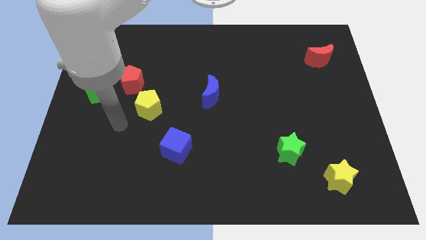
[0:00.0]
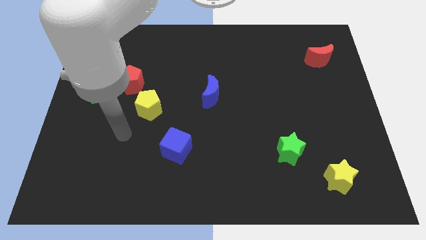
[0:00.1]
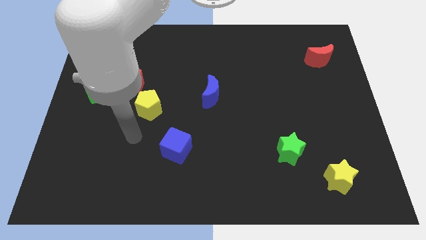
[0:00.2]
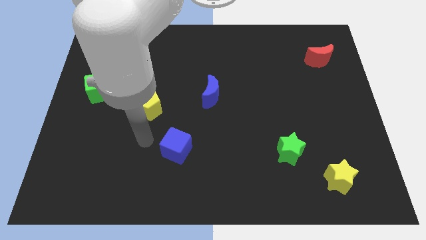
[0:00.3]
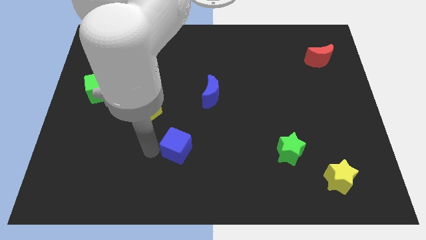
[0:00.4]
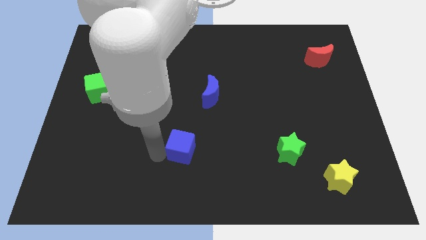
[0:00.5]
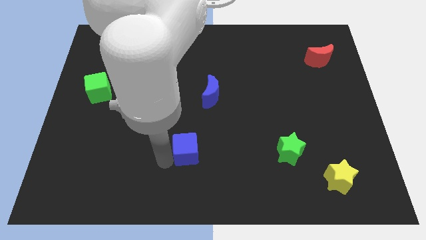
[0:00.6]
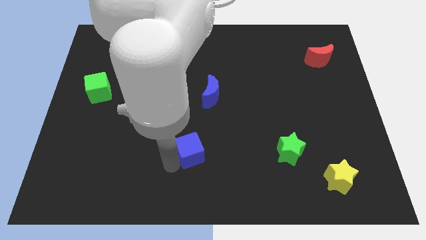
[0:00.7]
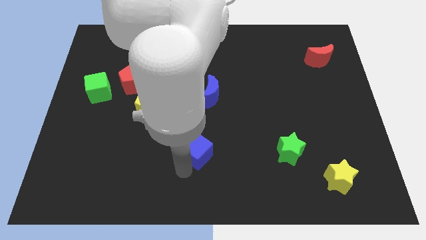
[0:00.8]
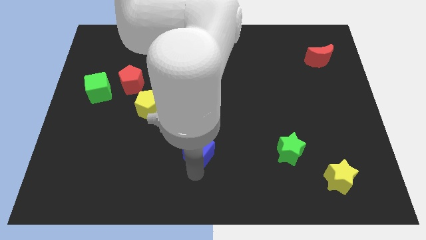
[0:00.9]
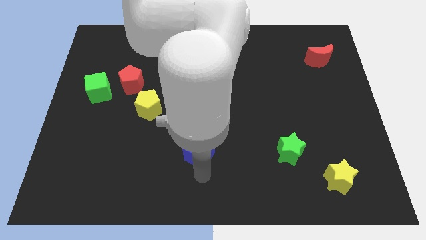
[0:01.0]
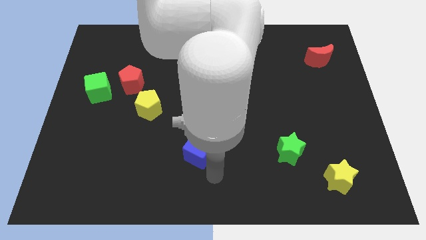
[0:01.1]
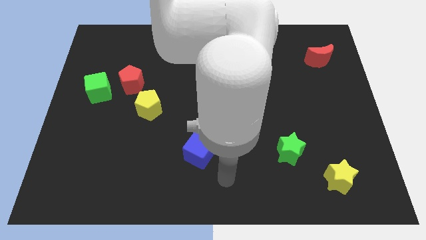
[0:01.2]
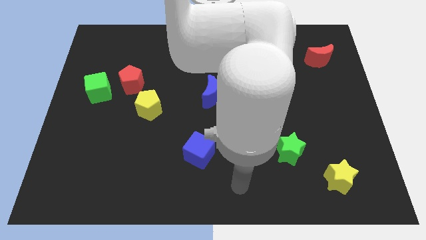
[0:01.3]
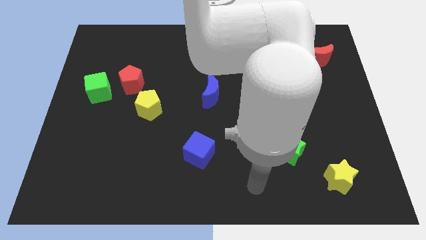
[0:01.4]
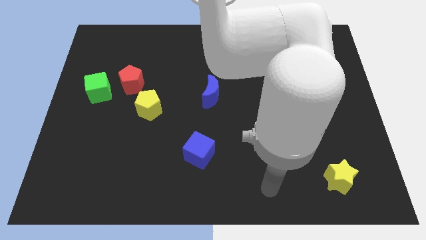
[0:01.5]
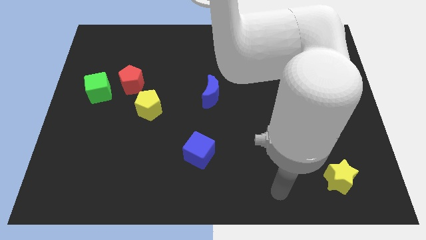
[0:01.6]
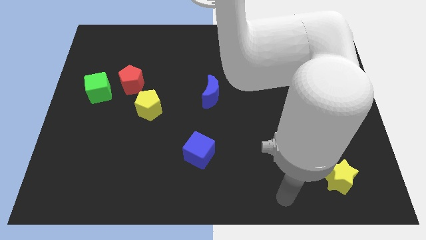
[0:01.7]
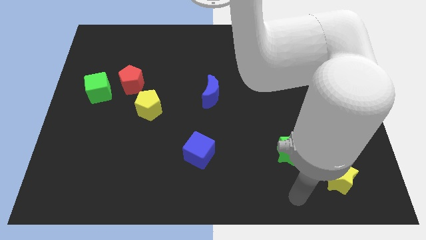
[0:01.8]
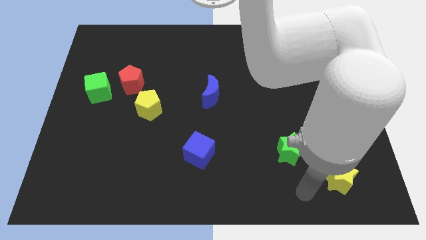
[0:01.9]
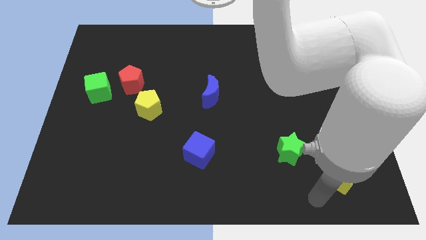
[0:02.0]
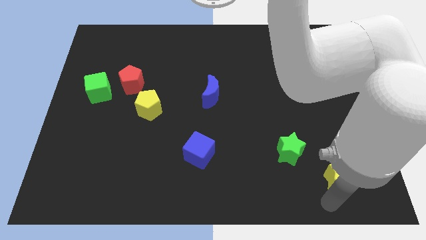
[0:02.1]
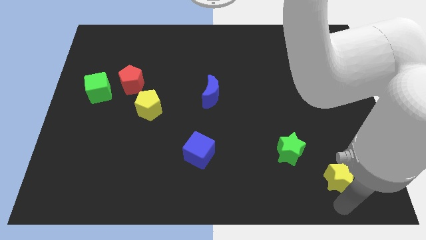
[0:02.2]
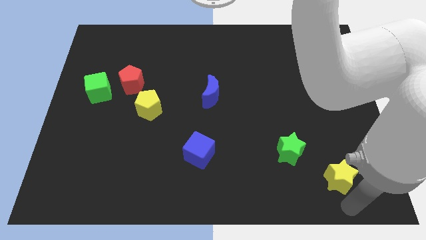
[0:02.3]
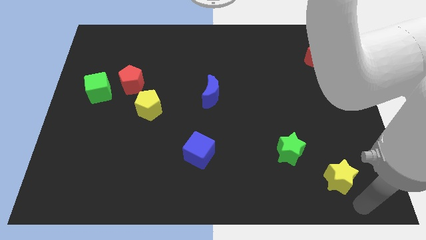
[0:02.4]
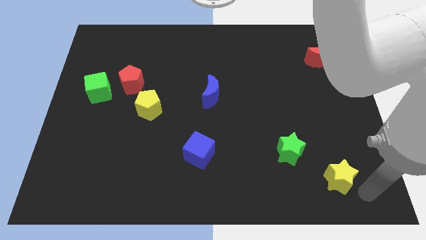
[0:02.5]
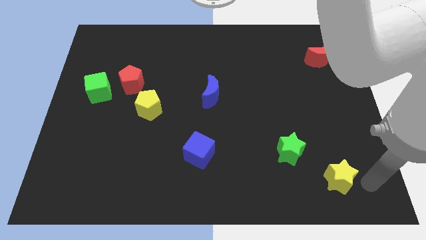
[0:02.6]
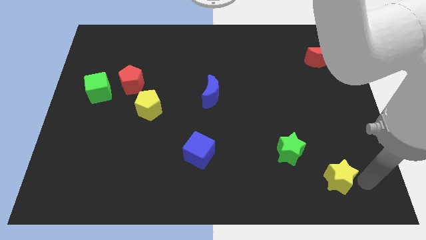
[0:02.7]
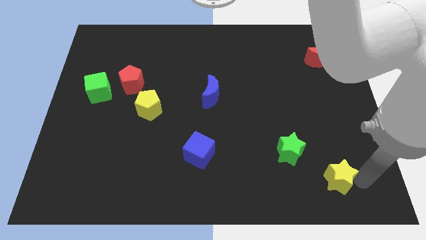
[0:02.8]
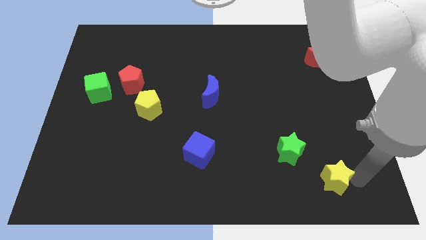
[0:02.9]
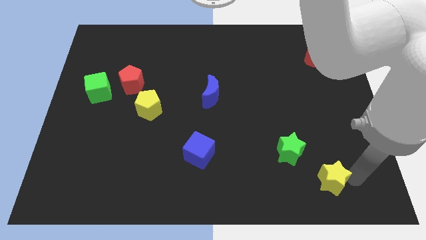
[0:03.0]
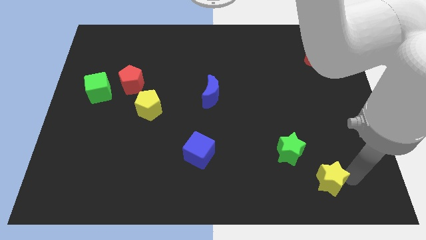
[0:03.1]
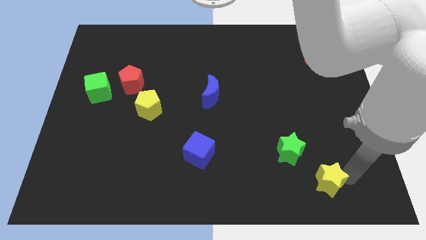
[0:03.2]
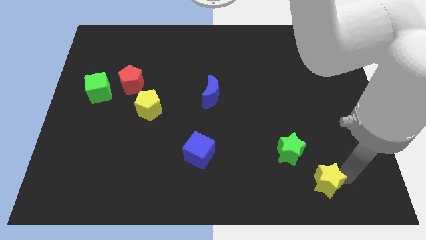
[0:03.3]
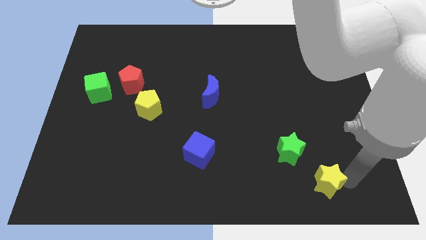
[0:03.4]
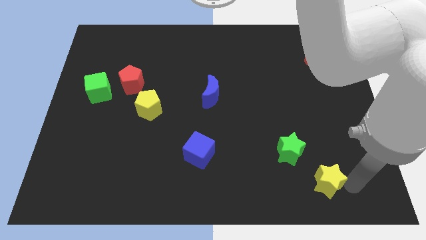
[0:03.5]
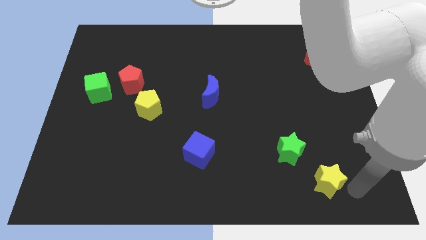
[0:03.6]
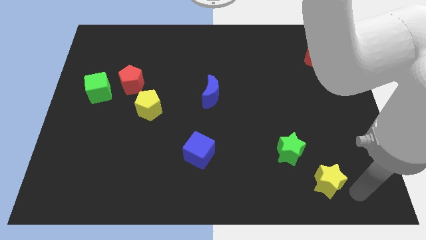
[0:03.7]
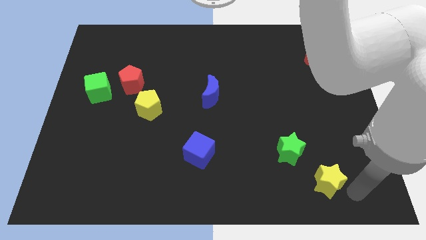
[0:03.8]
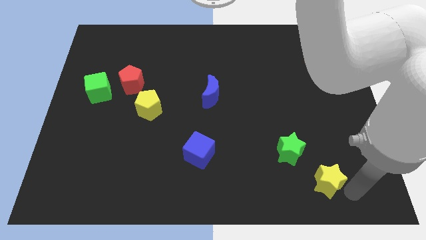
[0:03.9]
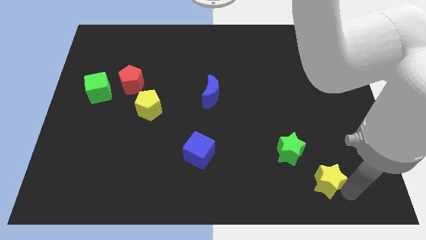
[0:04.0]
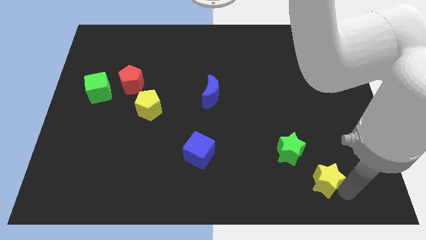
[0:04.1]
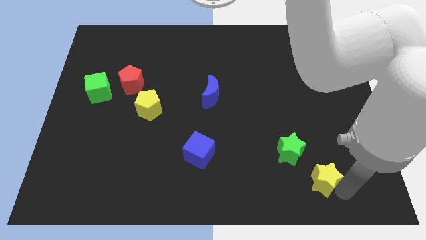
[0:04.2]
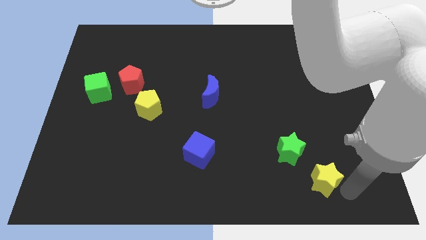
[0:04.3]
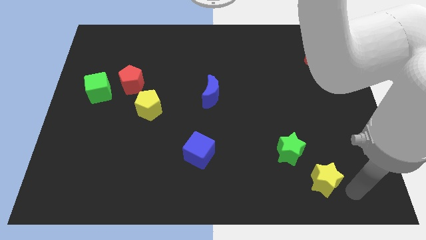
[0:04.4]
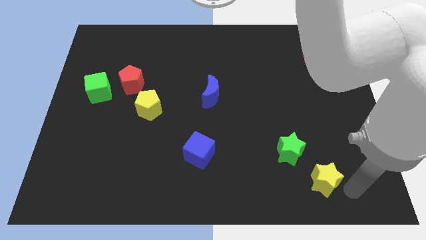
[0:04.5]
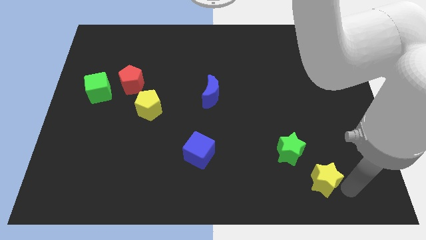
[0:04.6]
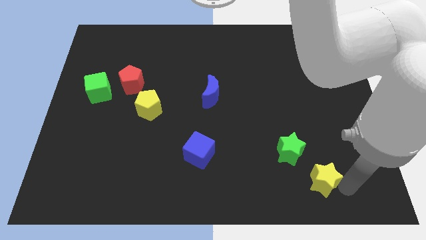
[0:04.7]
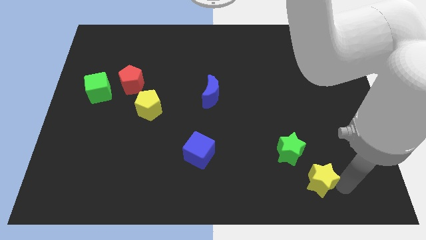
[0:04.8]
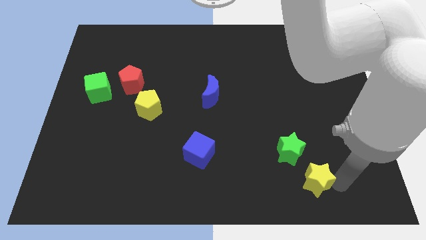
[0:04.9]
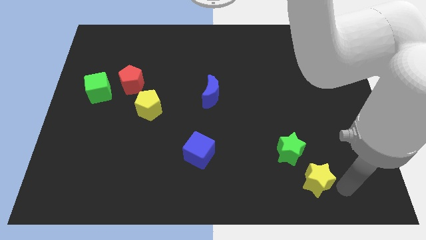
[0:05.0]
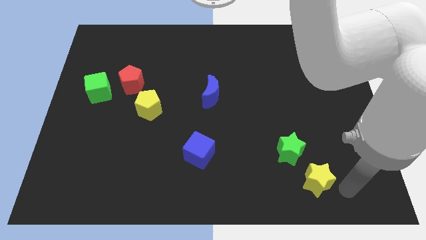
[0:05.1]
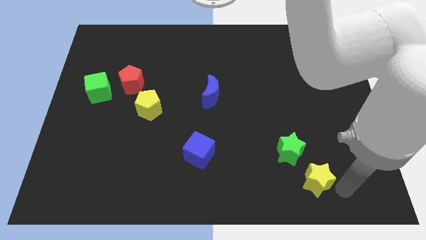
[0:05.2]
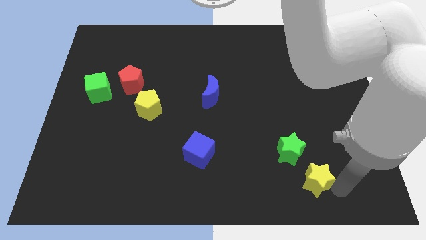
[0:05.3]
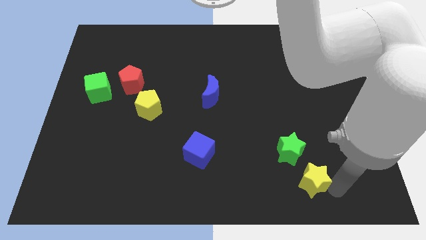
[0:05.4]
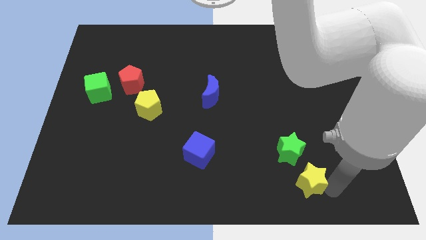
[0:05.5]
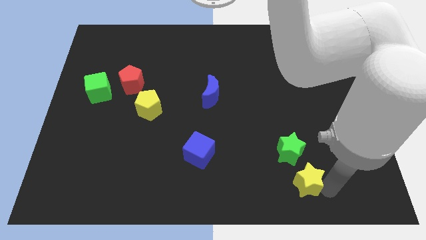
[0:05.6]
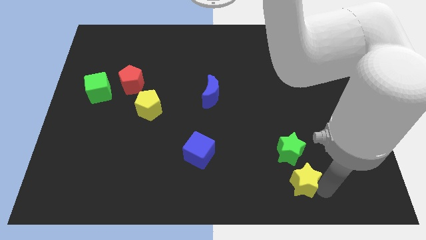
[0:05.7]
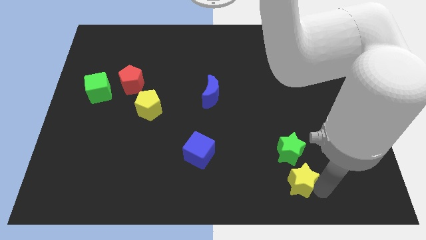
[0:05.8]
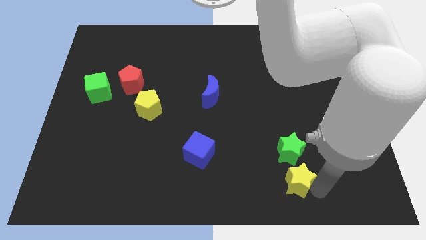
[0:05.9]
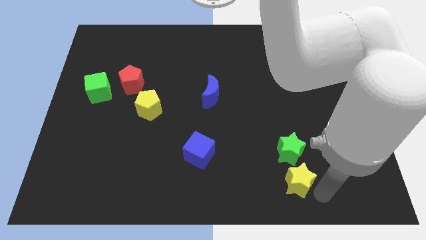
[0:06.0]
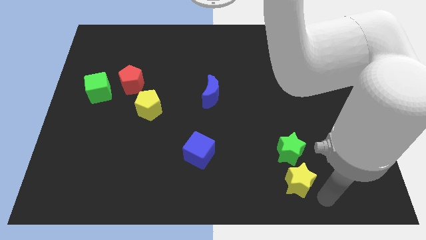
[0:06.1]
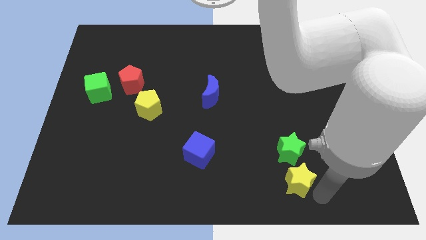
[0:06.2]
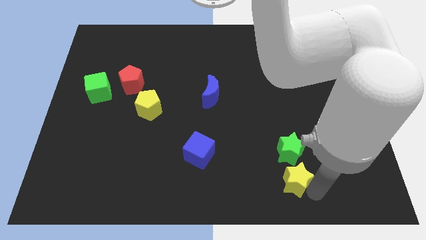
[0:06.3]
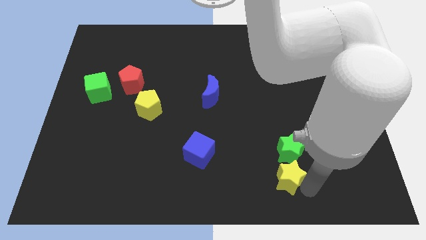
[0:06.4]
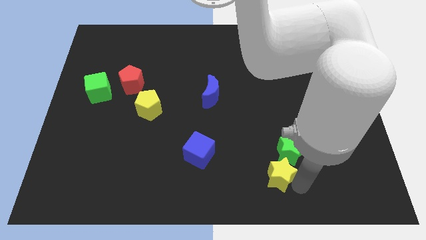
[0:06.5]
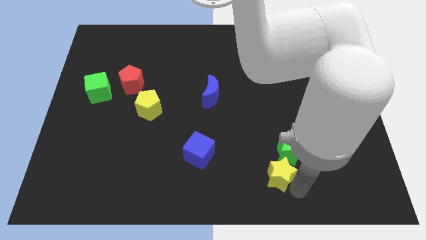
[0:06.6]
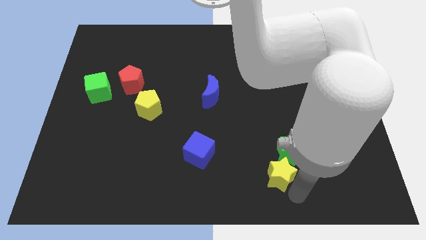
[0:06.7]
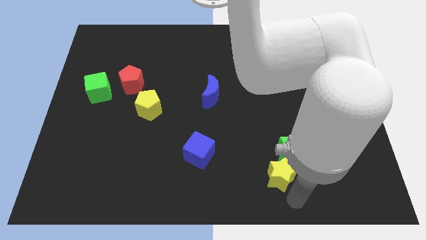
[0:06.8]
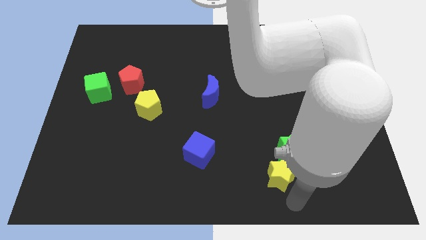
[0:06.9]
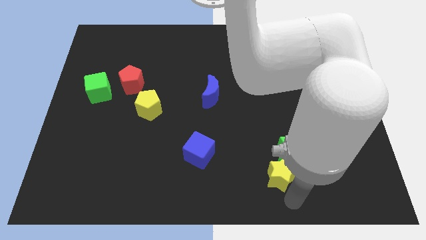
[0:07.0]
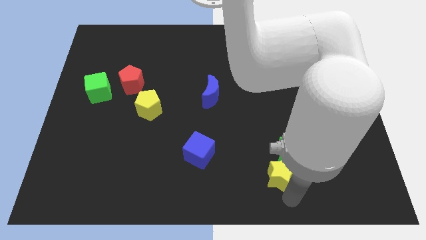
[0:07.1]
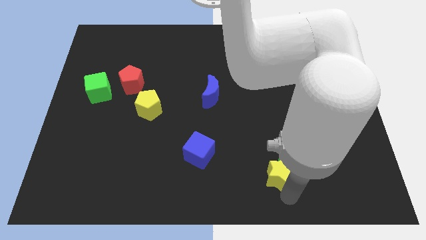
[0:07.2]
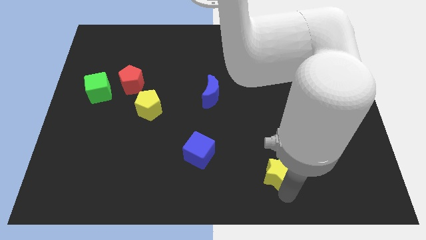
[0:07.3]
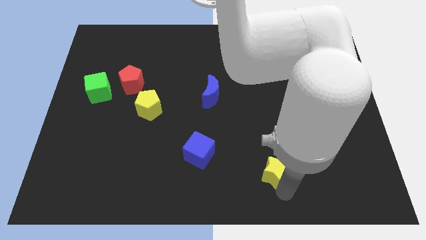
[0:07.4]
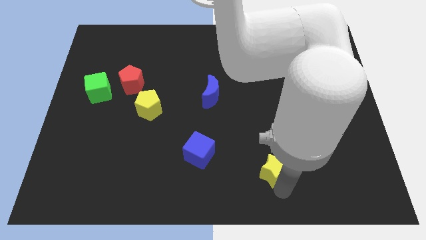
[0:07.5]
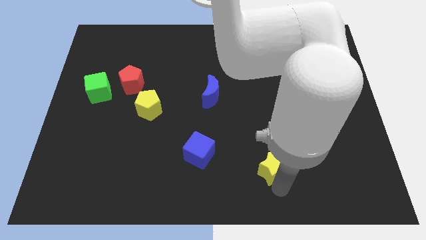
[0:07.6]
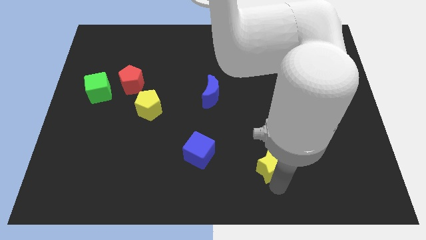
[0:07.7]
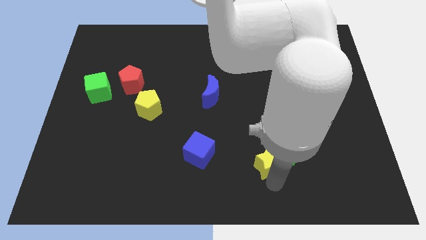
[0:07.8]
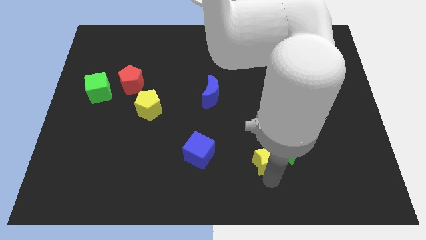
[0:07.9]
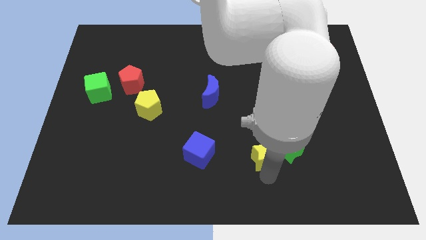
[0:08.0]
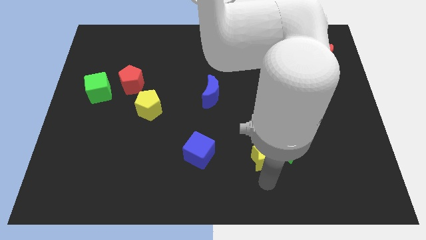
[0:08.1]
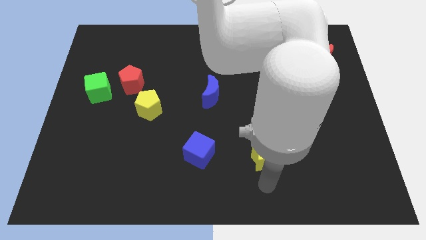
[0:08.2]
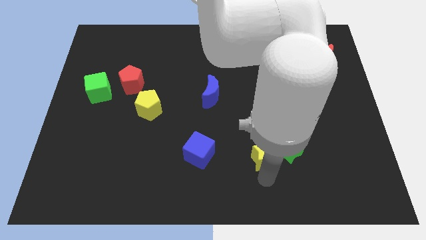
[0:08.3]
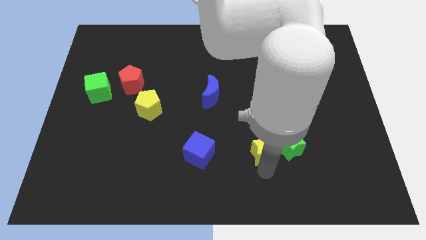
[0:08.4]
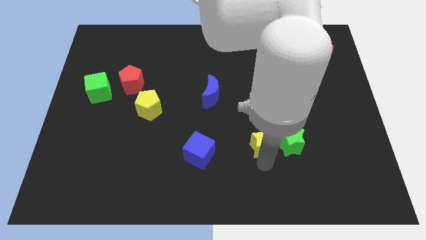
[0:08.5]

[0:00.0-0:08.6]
move the yellow star to the top left of the green star
